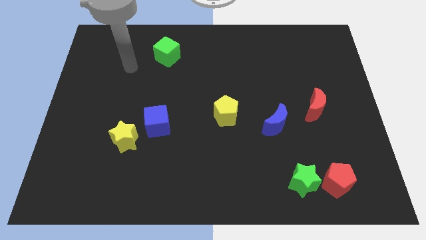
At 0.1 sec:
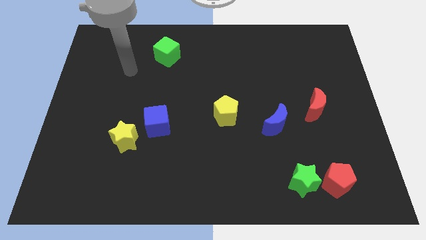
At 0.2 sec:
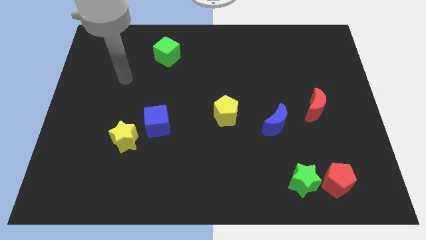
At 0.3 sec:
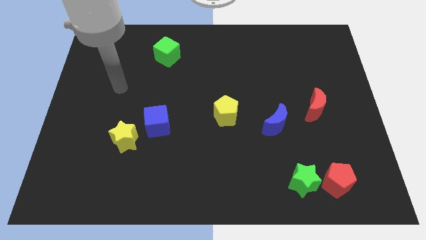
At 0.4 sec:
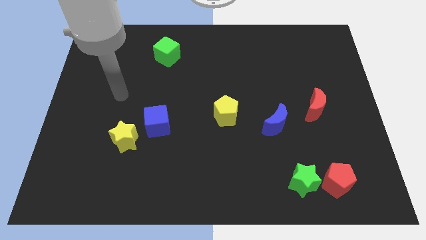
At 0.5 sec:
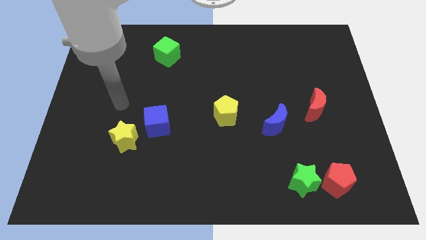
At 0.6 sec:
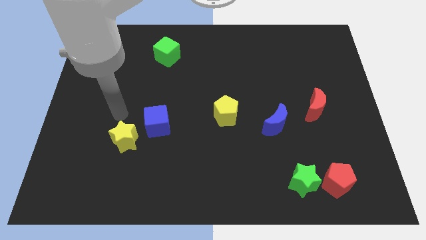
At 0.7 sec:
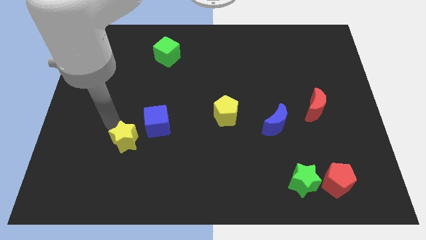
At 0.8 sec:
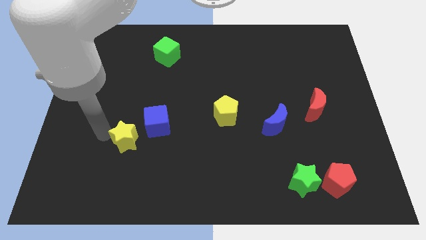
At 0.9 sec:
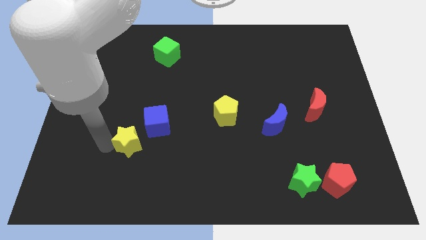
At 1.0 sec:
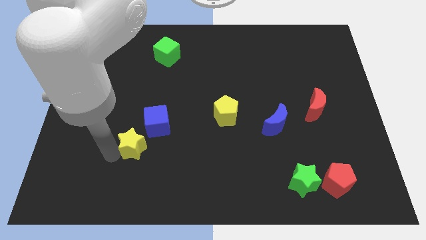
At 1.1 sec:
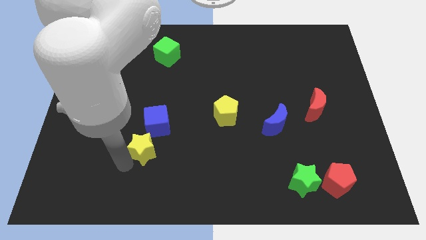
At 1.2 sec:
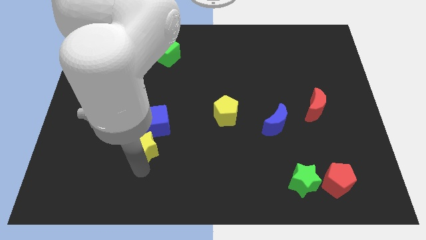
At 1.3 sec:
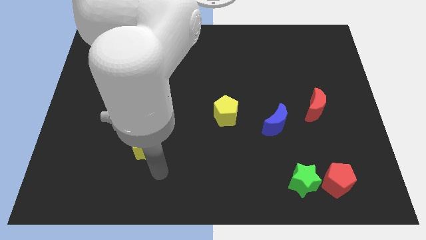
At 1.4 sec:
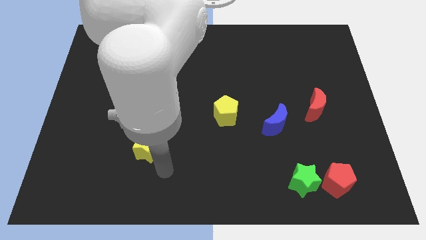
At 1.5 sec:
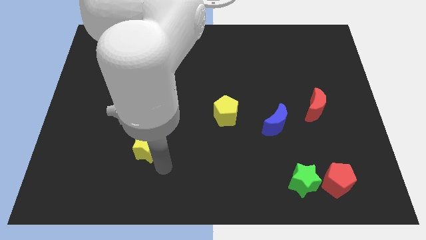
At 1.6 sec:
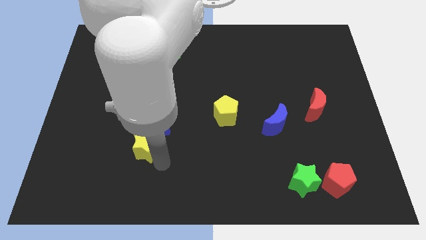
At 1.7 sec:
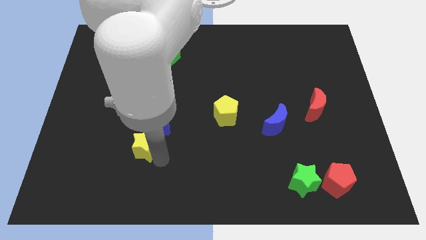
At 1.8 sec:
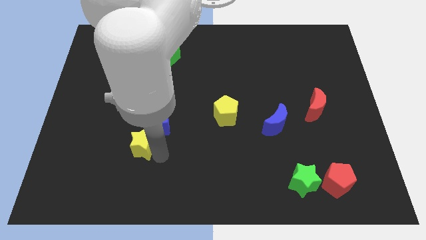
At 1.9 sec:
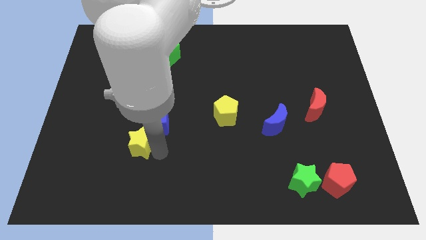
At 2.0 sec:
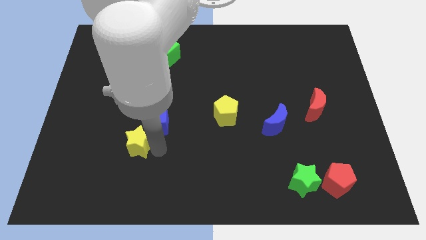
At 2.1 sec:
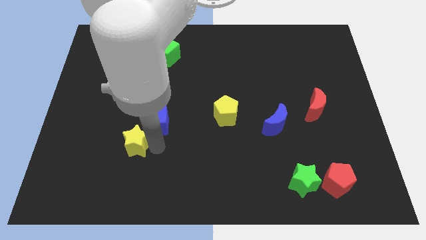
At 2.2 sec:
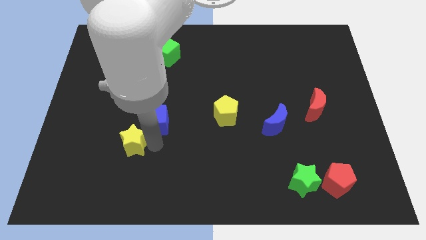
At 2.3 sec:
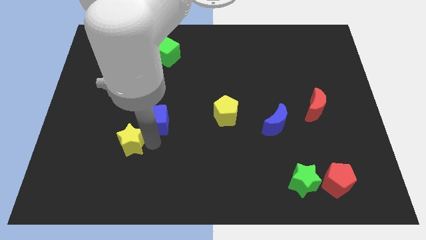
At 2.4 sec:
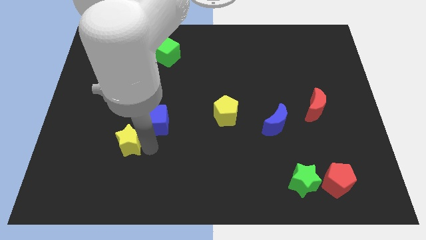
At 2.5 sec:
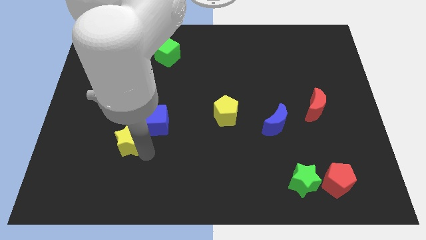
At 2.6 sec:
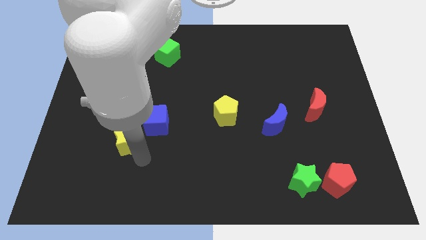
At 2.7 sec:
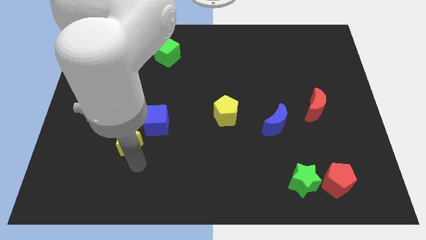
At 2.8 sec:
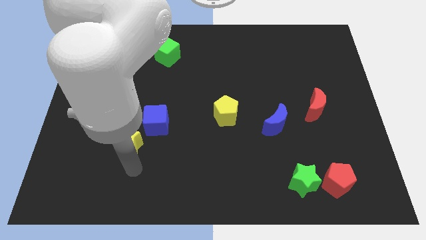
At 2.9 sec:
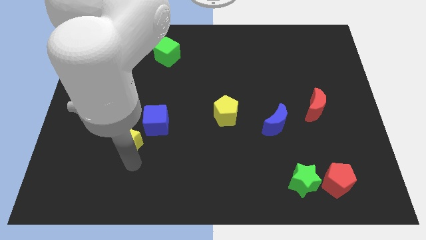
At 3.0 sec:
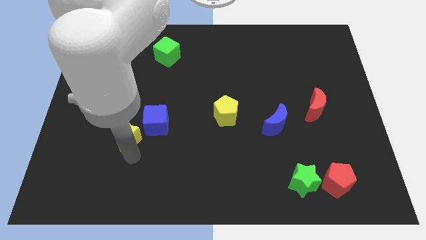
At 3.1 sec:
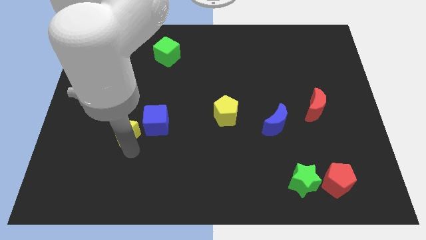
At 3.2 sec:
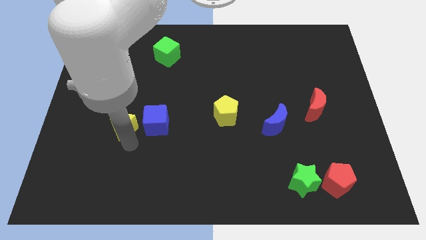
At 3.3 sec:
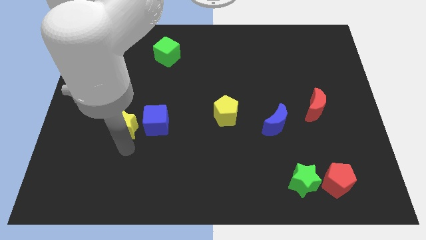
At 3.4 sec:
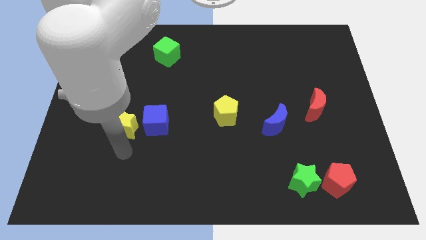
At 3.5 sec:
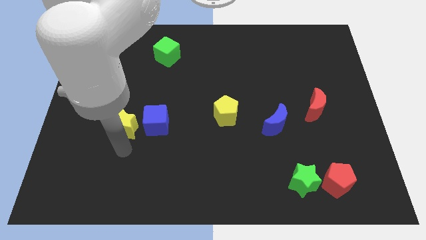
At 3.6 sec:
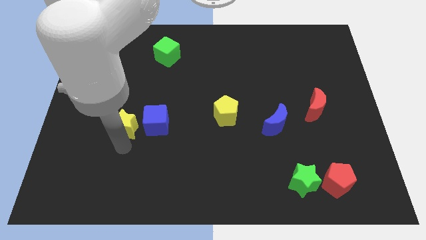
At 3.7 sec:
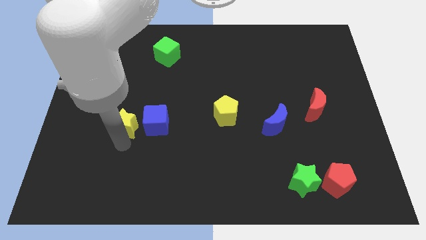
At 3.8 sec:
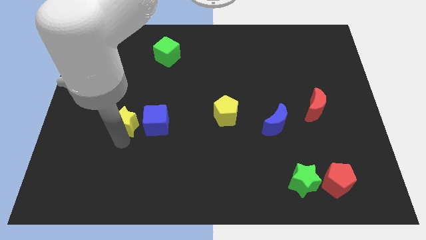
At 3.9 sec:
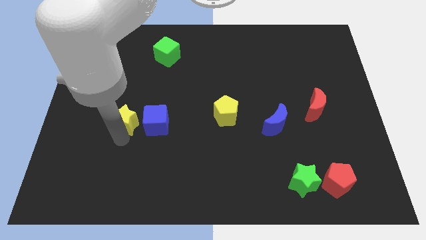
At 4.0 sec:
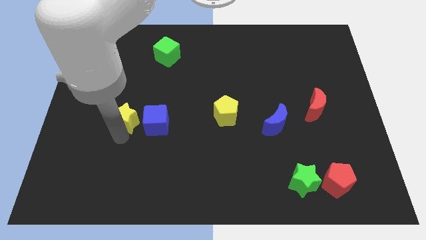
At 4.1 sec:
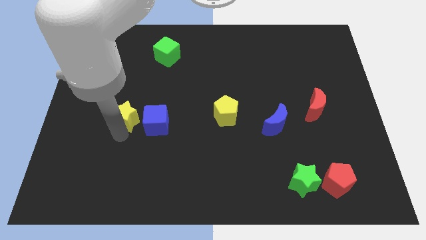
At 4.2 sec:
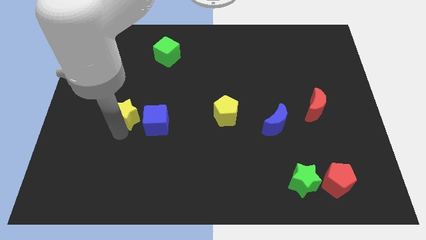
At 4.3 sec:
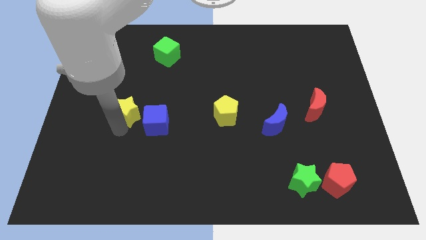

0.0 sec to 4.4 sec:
move the yellow star up a bit

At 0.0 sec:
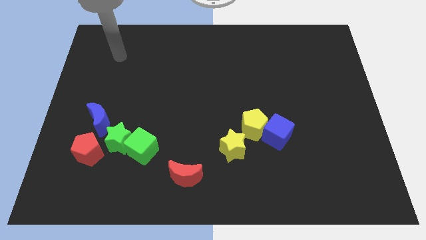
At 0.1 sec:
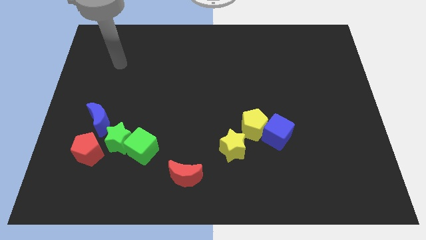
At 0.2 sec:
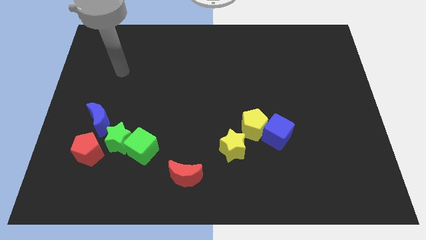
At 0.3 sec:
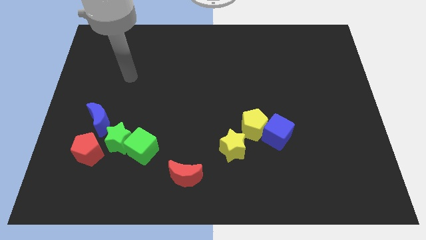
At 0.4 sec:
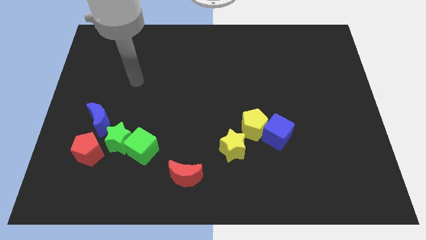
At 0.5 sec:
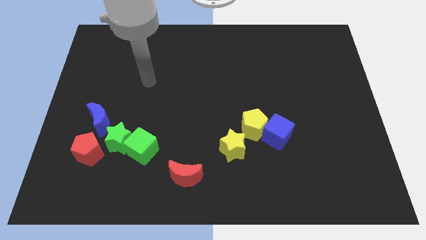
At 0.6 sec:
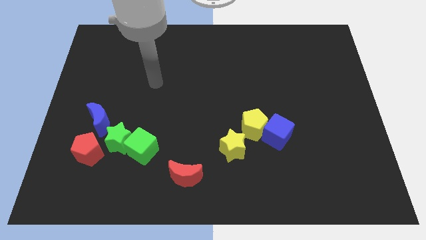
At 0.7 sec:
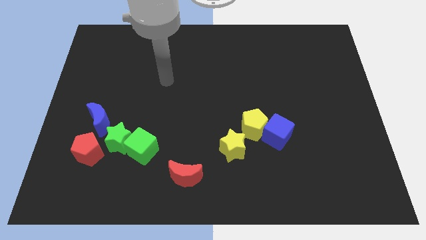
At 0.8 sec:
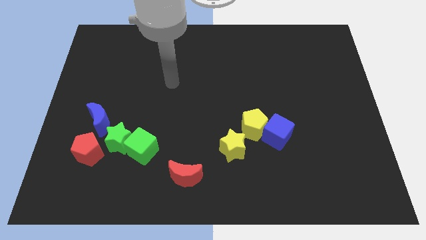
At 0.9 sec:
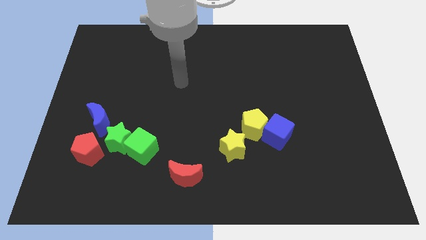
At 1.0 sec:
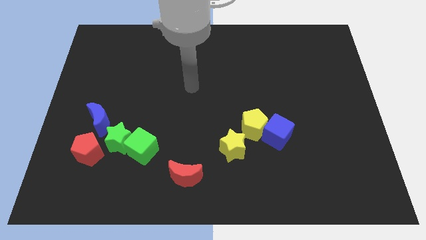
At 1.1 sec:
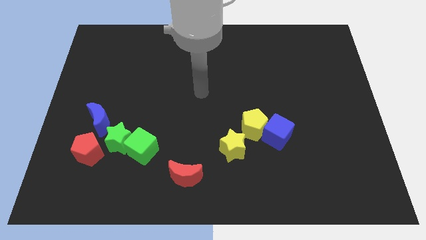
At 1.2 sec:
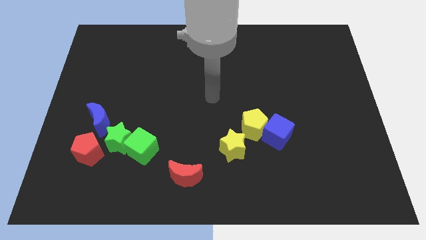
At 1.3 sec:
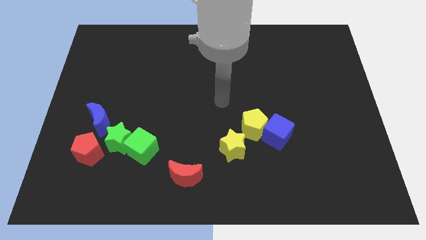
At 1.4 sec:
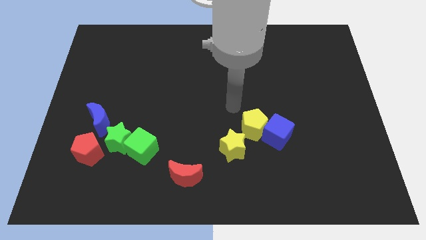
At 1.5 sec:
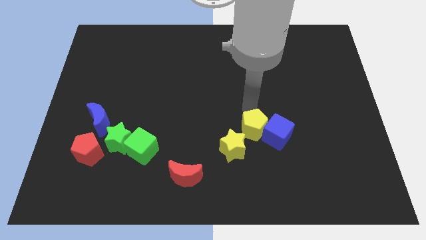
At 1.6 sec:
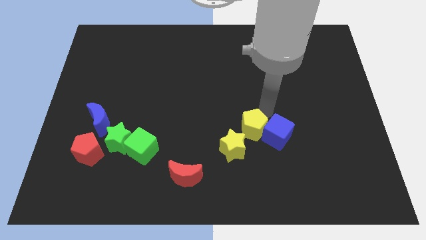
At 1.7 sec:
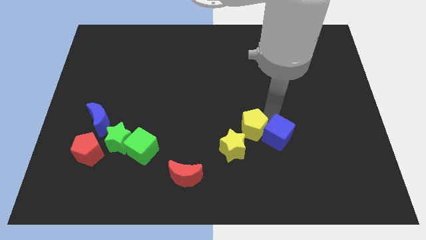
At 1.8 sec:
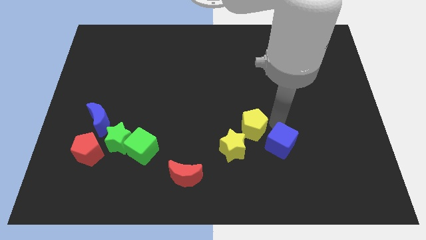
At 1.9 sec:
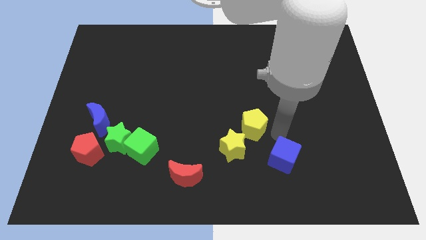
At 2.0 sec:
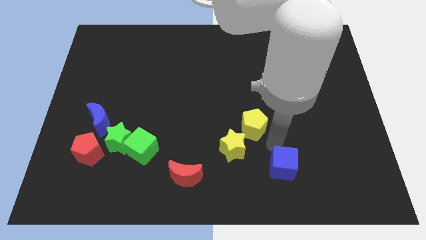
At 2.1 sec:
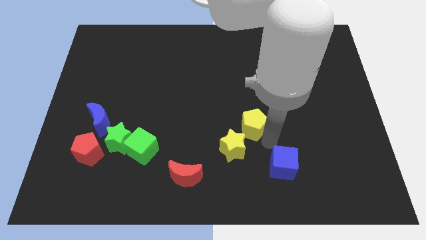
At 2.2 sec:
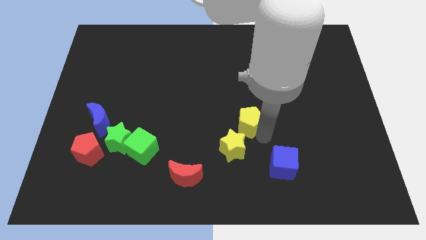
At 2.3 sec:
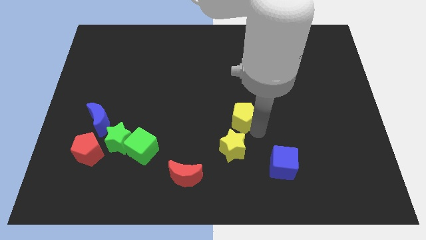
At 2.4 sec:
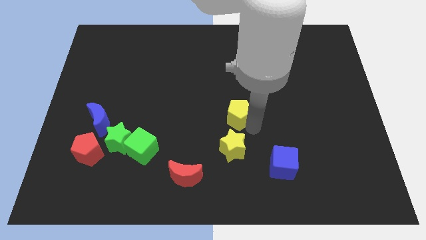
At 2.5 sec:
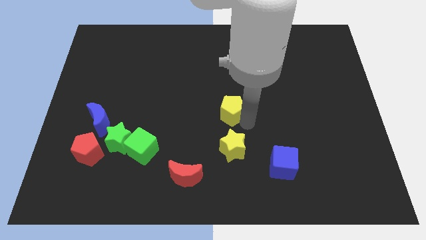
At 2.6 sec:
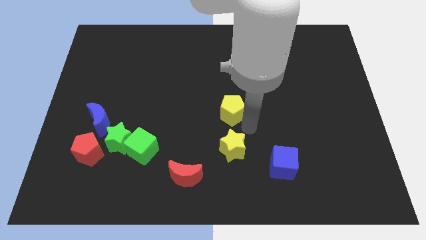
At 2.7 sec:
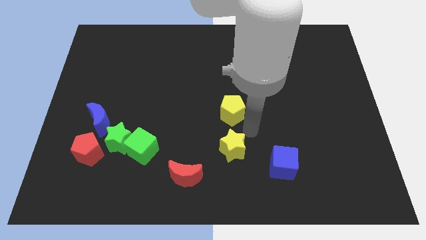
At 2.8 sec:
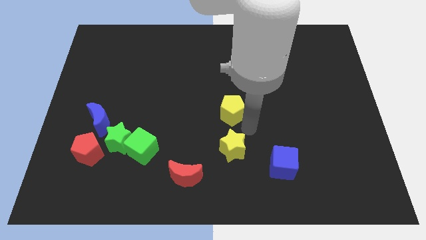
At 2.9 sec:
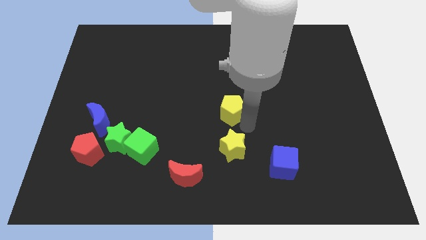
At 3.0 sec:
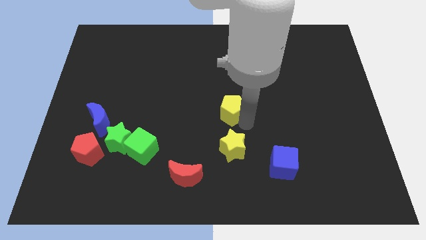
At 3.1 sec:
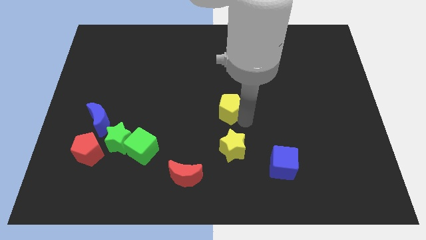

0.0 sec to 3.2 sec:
slide the yellow pentagon upwards and then left a little

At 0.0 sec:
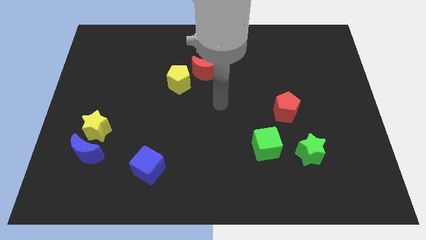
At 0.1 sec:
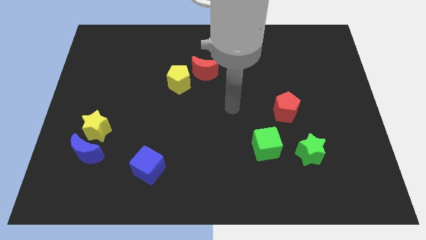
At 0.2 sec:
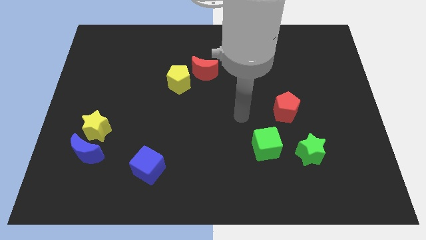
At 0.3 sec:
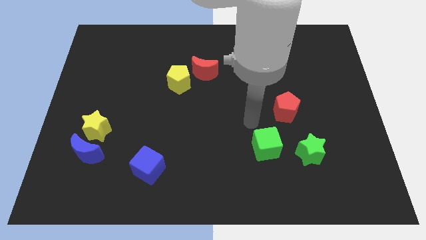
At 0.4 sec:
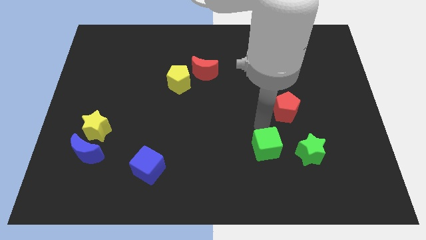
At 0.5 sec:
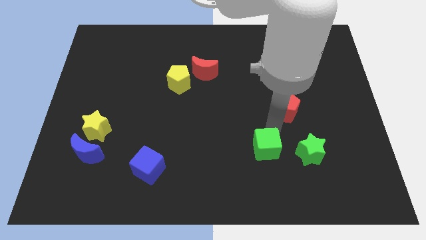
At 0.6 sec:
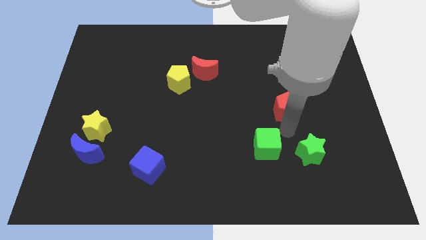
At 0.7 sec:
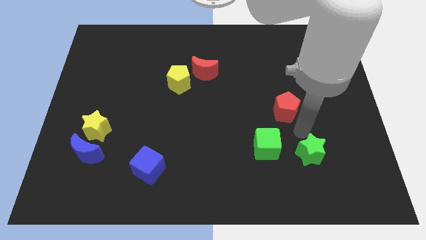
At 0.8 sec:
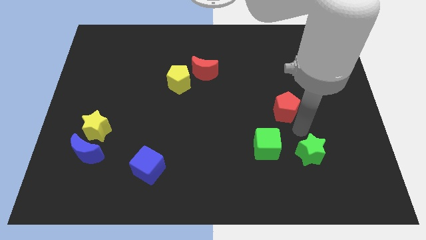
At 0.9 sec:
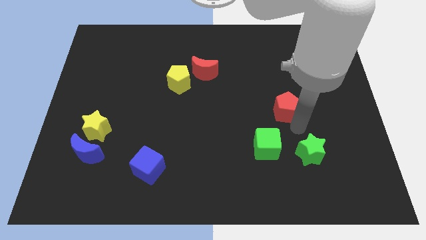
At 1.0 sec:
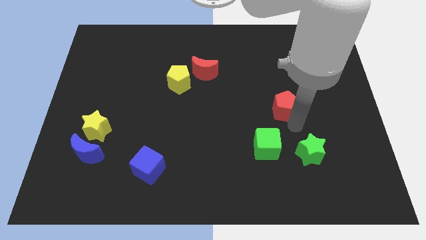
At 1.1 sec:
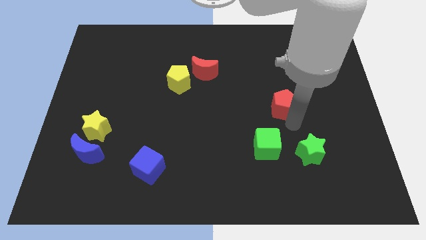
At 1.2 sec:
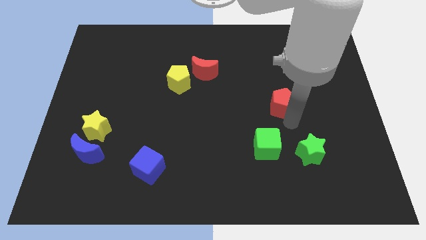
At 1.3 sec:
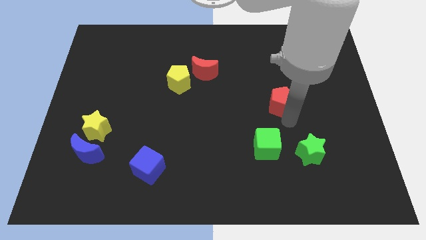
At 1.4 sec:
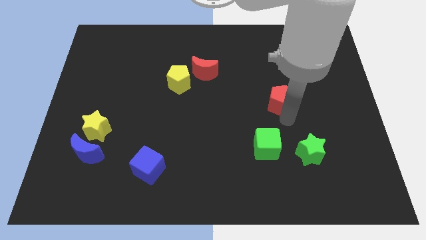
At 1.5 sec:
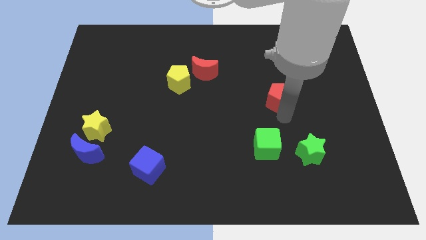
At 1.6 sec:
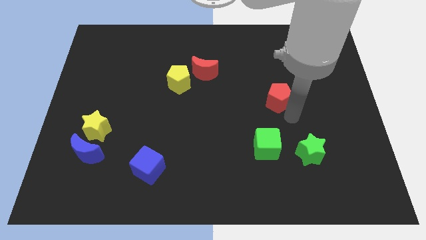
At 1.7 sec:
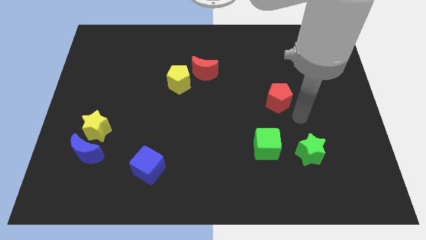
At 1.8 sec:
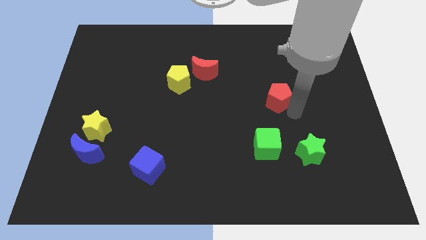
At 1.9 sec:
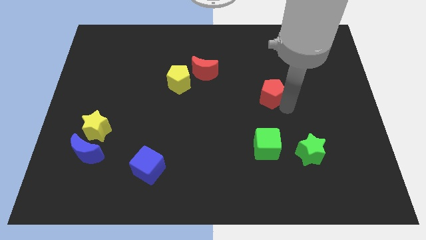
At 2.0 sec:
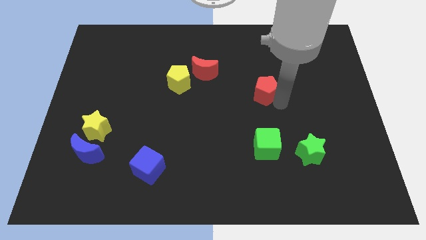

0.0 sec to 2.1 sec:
slide the red pentagon a little up and then left
